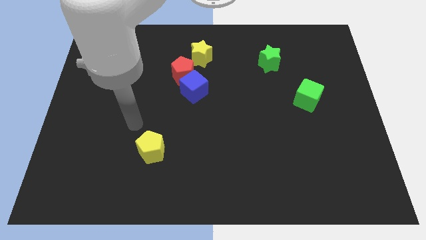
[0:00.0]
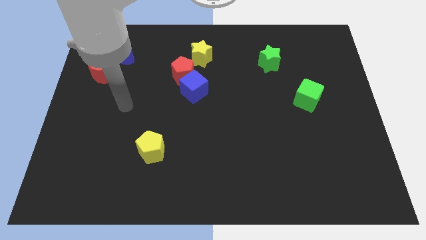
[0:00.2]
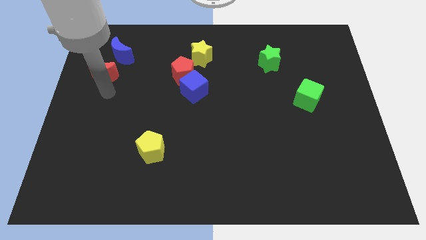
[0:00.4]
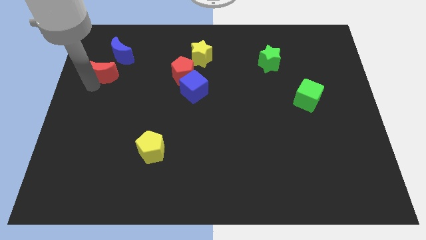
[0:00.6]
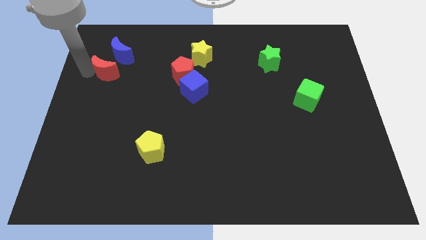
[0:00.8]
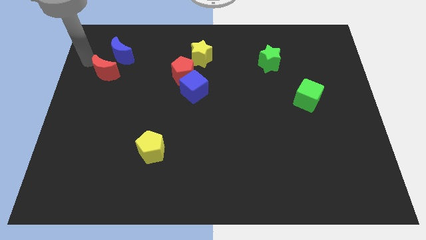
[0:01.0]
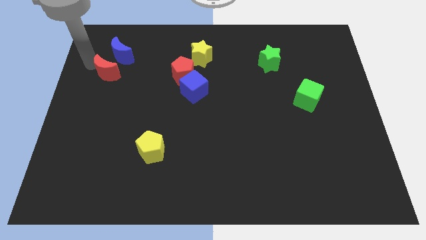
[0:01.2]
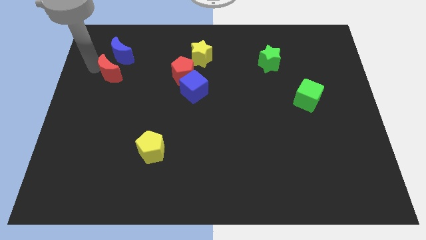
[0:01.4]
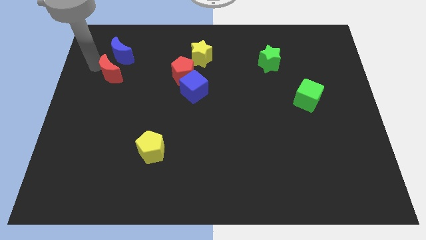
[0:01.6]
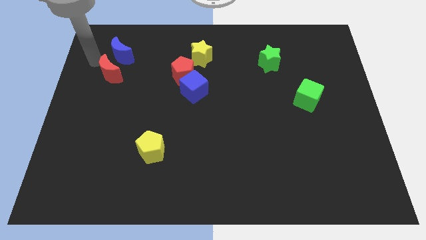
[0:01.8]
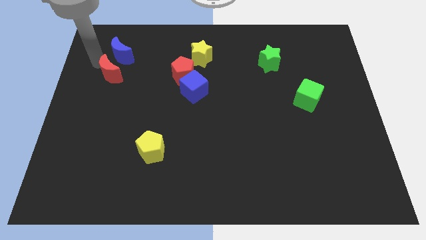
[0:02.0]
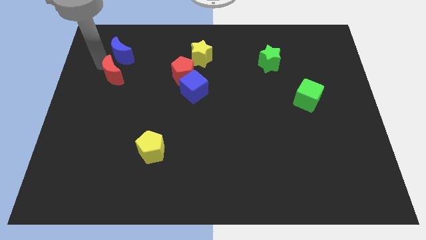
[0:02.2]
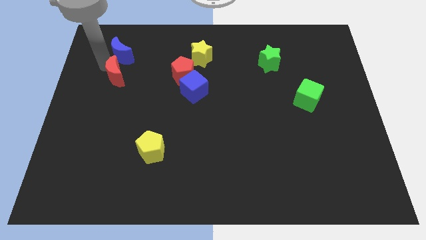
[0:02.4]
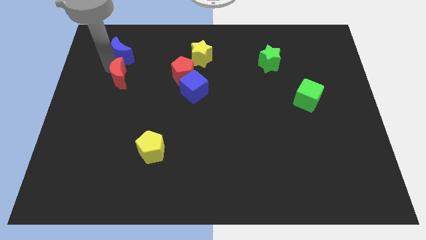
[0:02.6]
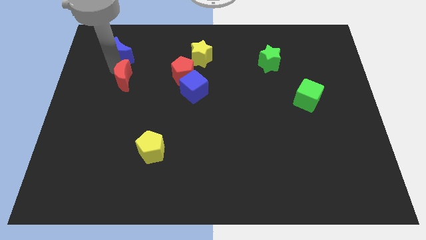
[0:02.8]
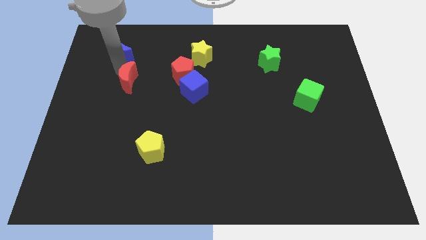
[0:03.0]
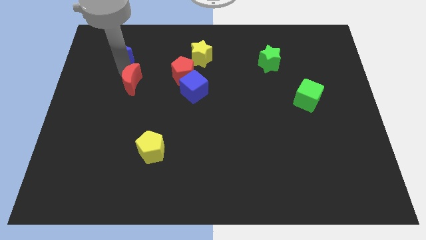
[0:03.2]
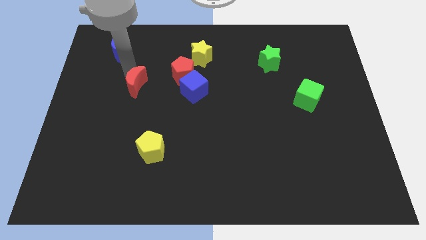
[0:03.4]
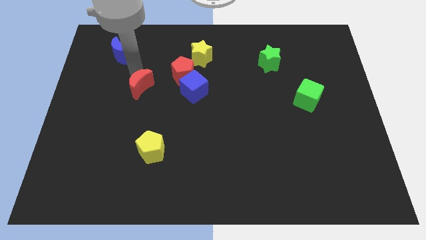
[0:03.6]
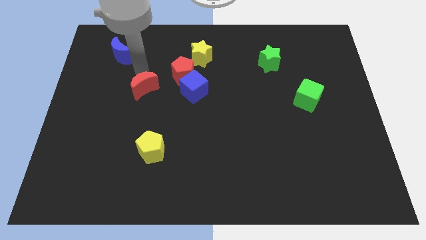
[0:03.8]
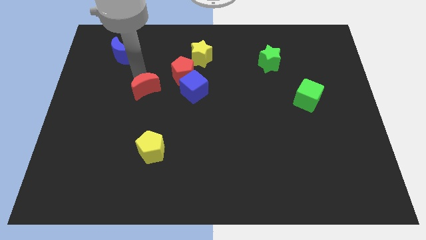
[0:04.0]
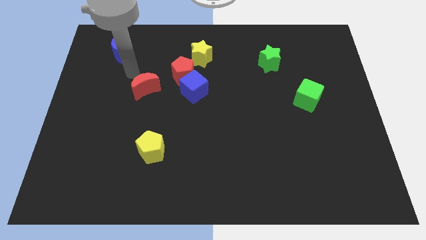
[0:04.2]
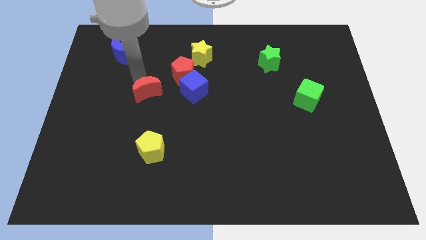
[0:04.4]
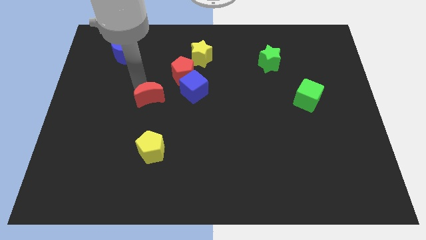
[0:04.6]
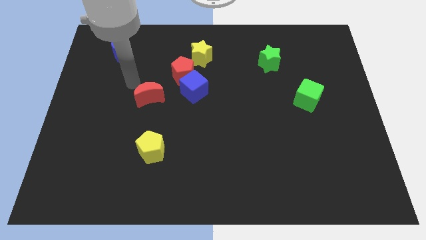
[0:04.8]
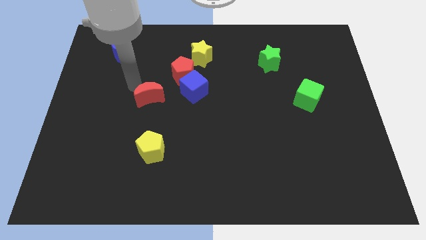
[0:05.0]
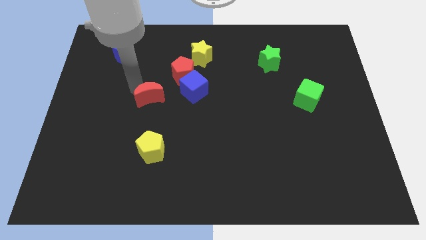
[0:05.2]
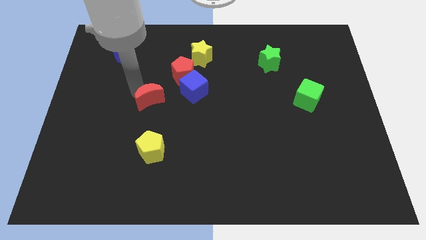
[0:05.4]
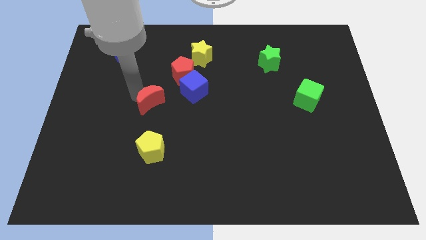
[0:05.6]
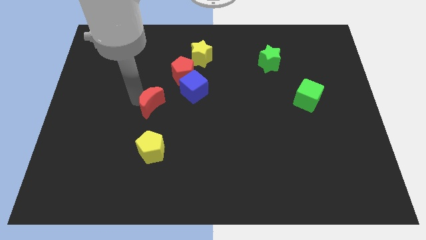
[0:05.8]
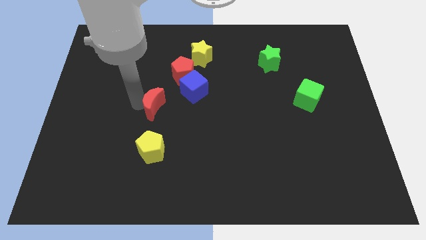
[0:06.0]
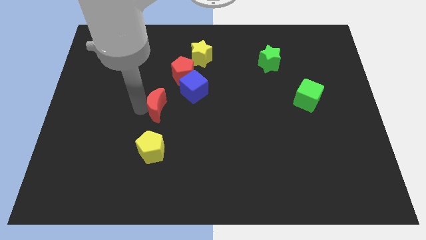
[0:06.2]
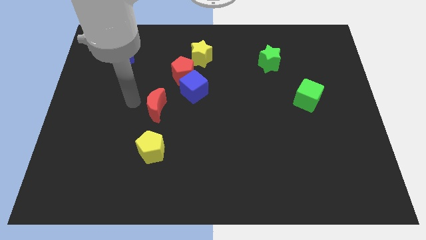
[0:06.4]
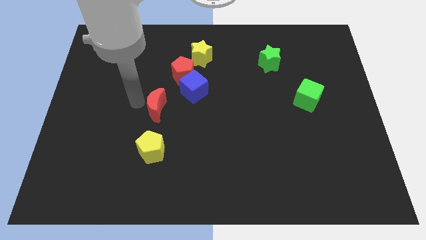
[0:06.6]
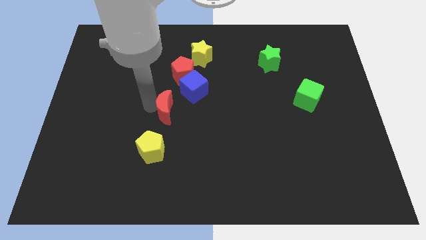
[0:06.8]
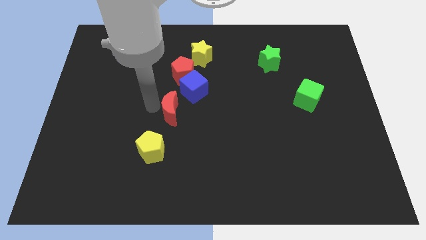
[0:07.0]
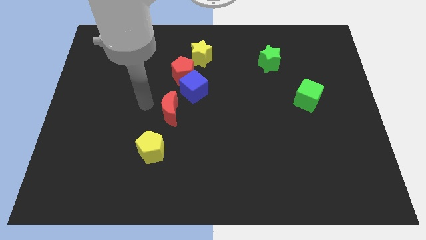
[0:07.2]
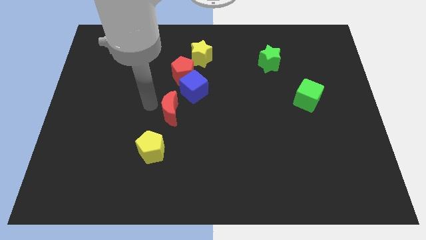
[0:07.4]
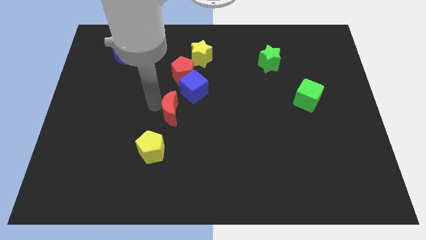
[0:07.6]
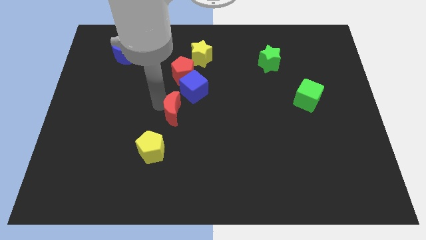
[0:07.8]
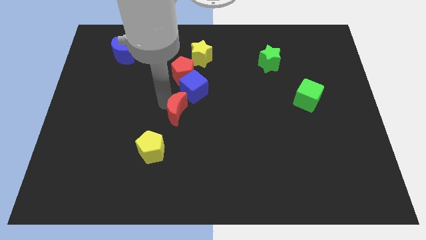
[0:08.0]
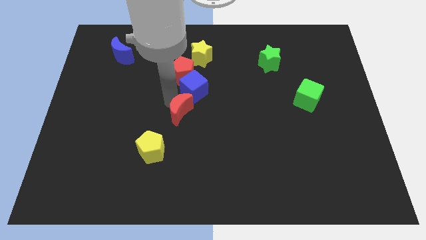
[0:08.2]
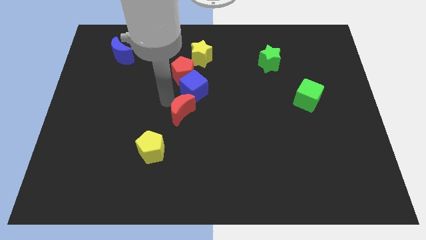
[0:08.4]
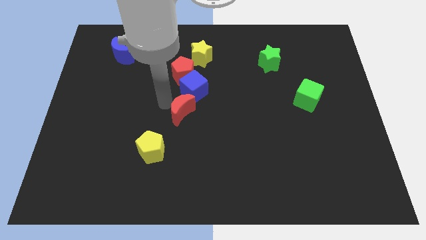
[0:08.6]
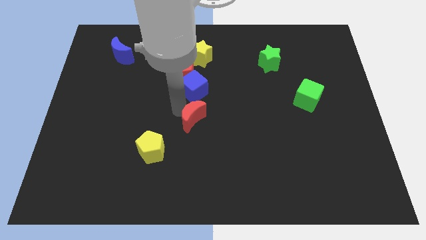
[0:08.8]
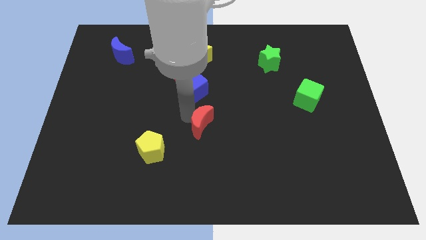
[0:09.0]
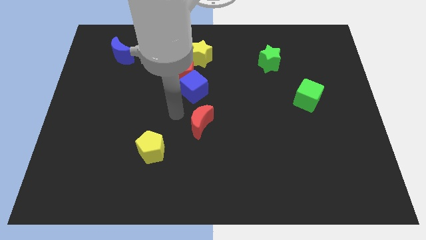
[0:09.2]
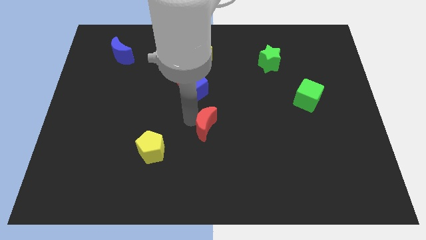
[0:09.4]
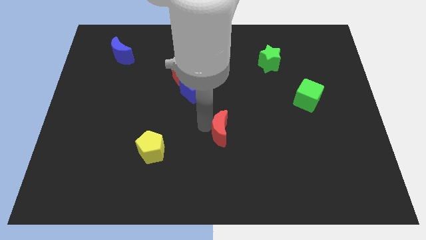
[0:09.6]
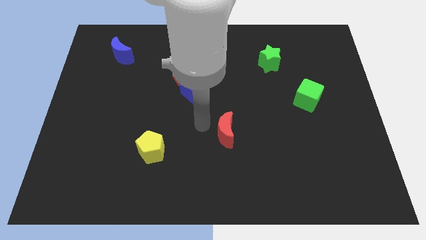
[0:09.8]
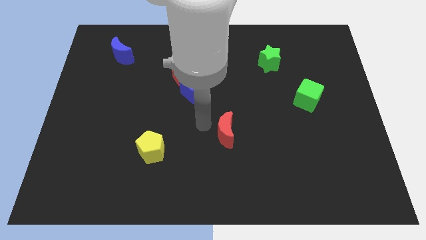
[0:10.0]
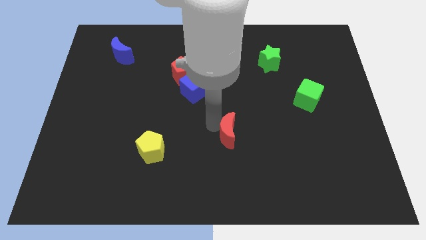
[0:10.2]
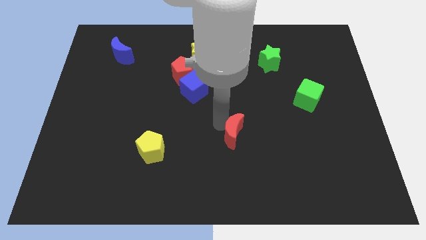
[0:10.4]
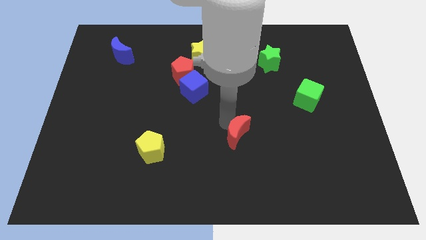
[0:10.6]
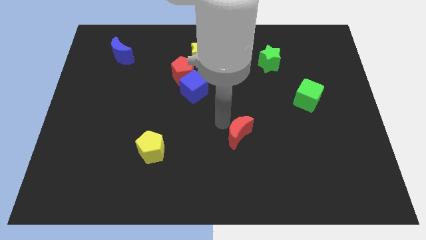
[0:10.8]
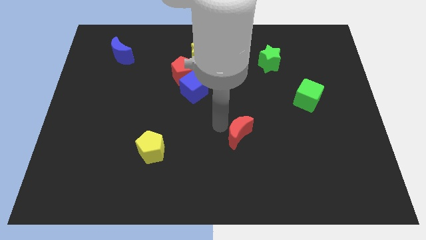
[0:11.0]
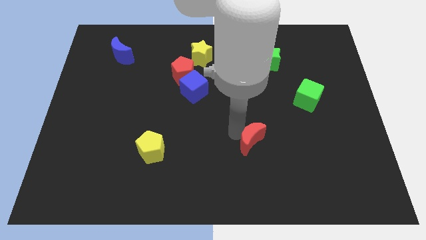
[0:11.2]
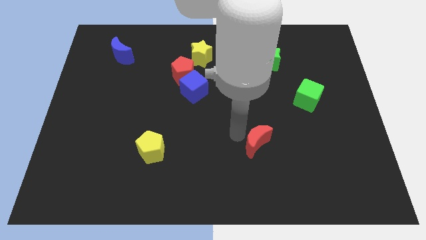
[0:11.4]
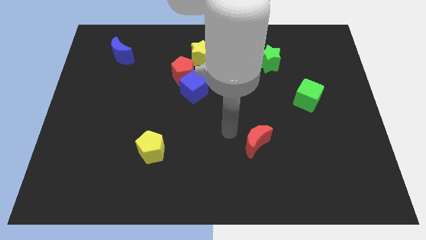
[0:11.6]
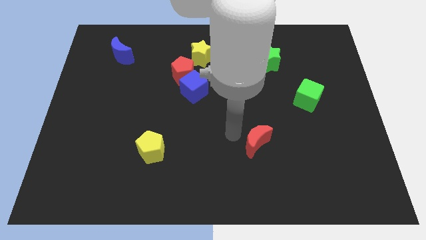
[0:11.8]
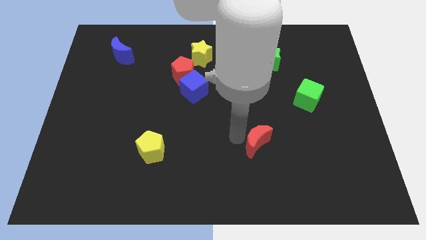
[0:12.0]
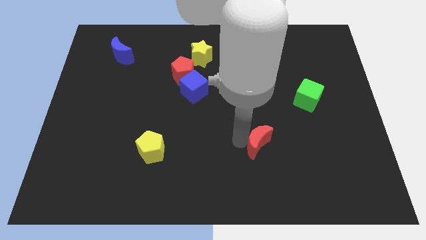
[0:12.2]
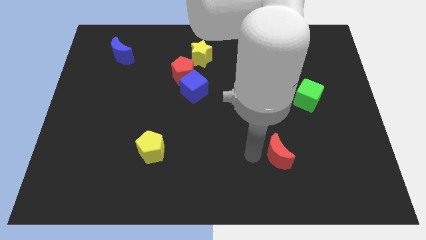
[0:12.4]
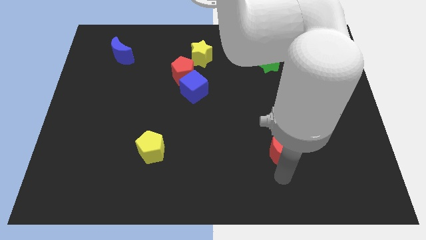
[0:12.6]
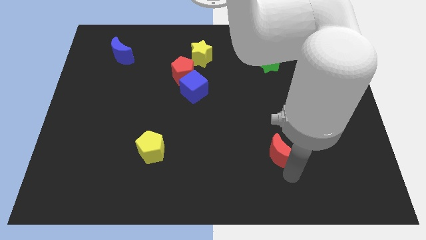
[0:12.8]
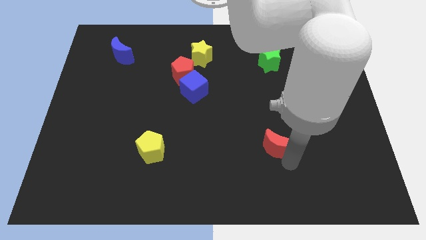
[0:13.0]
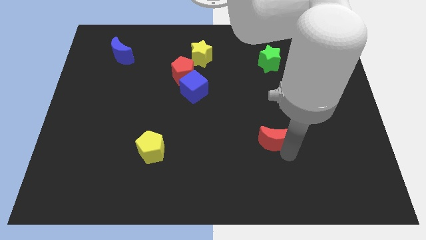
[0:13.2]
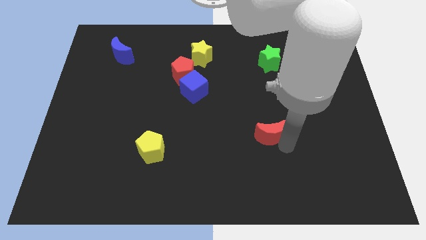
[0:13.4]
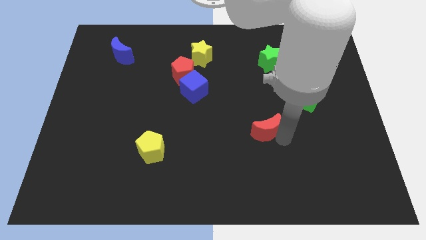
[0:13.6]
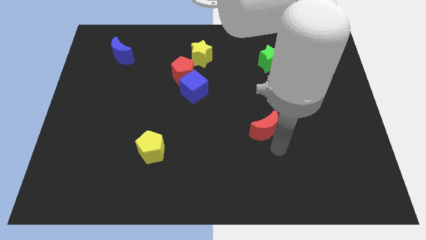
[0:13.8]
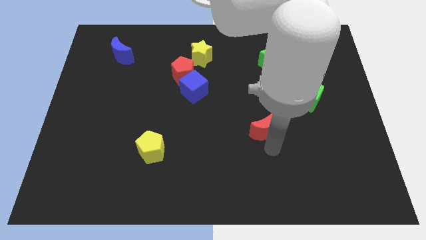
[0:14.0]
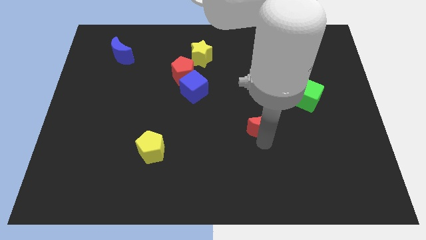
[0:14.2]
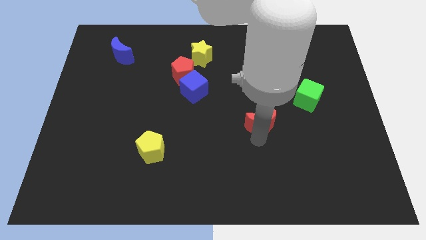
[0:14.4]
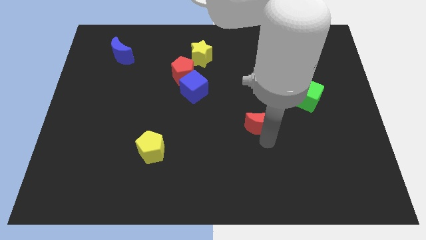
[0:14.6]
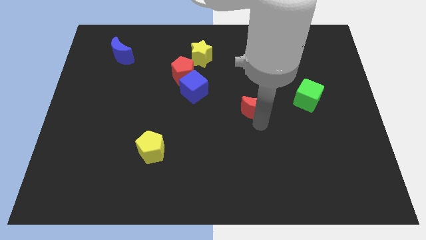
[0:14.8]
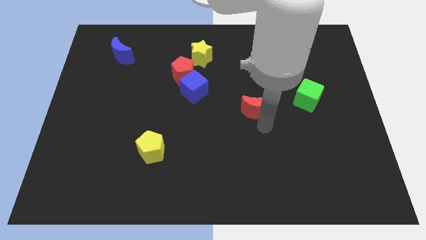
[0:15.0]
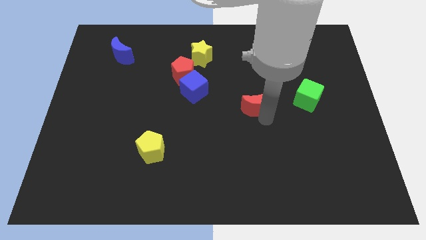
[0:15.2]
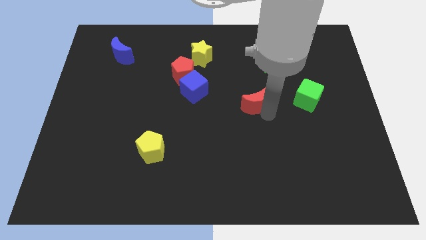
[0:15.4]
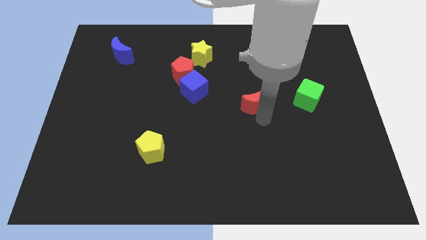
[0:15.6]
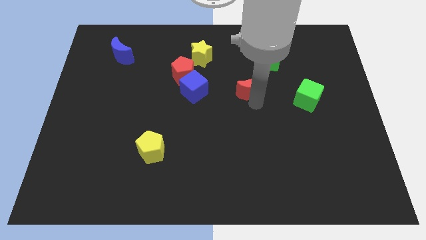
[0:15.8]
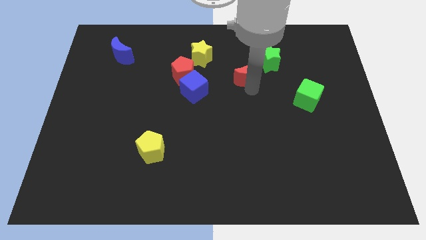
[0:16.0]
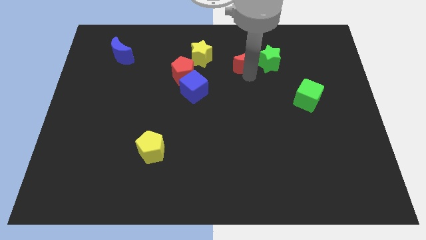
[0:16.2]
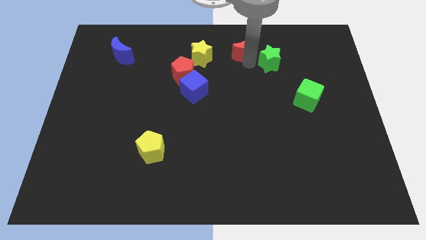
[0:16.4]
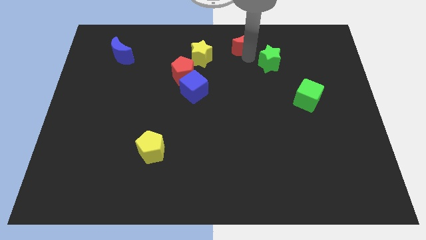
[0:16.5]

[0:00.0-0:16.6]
put the red moon to the towards your base
